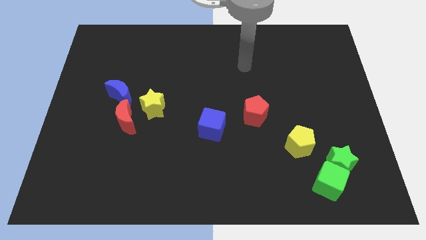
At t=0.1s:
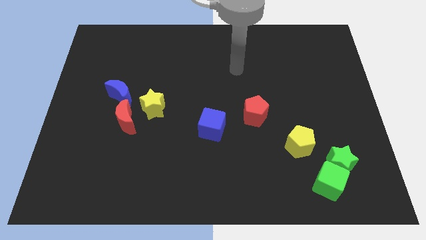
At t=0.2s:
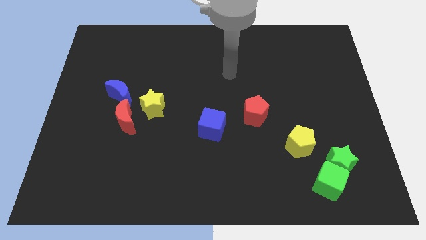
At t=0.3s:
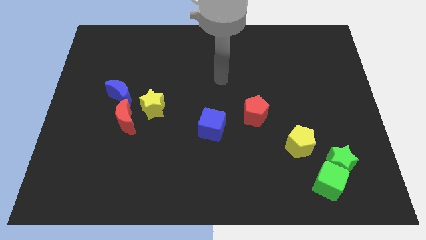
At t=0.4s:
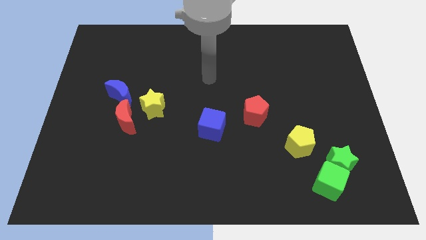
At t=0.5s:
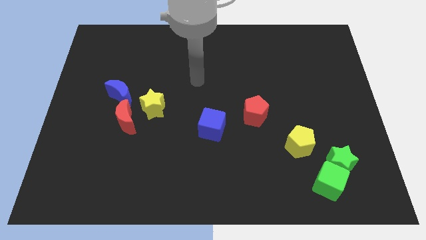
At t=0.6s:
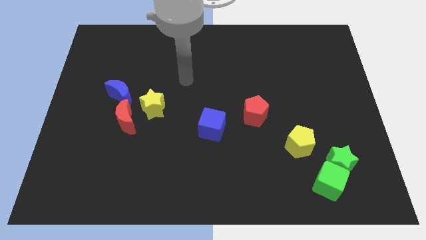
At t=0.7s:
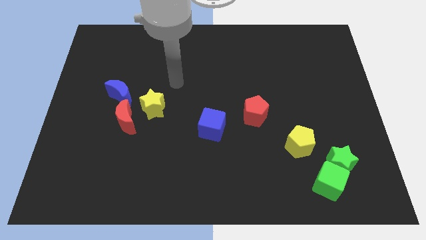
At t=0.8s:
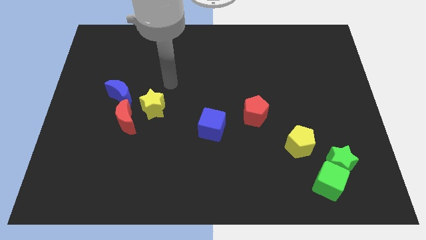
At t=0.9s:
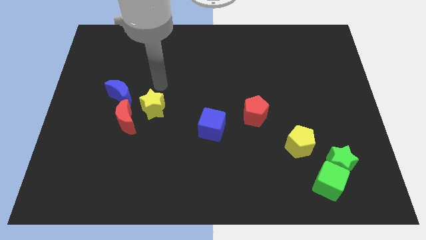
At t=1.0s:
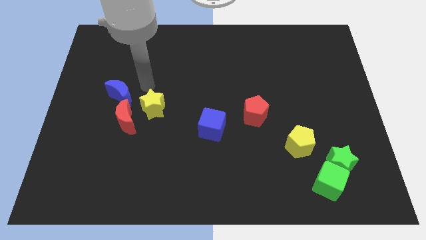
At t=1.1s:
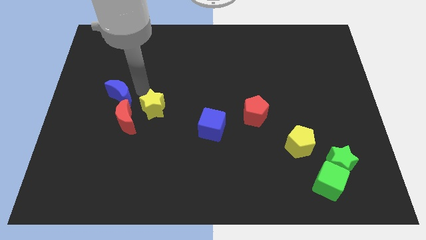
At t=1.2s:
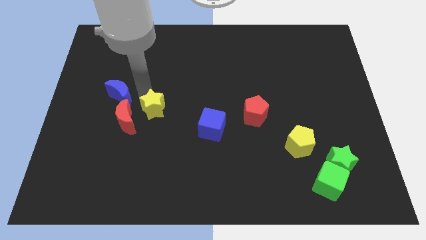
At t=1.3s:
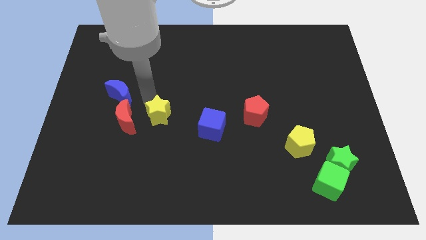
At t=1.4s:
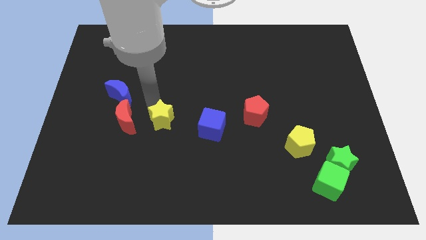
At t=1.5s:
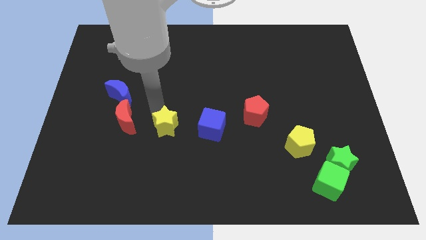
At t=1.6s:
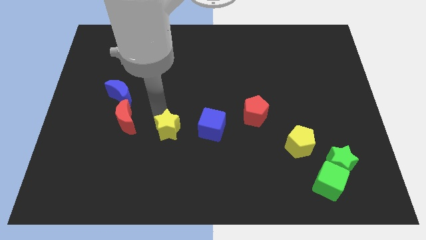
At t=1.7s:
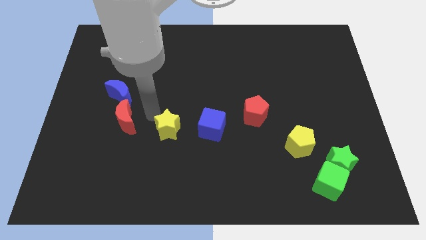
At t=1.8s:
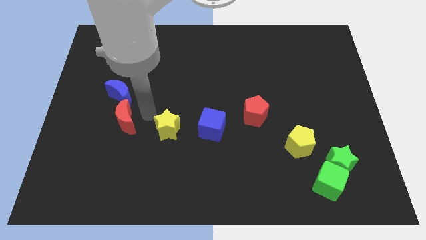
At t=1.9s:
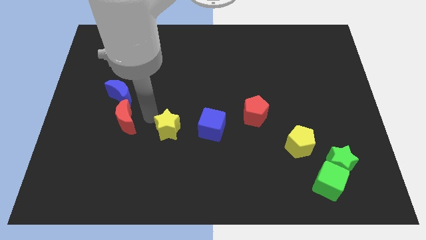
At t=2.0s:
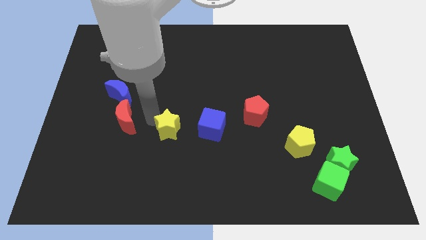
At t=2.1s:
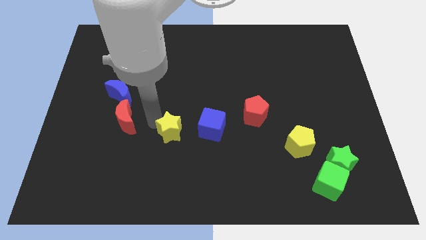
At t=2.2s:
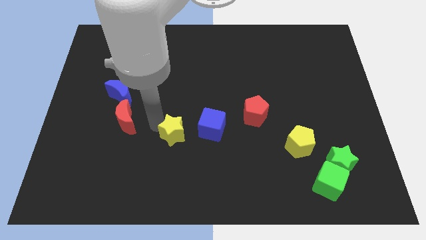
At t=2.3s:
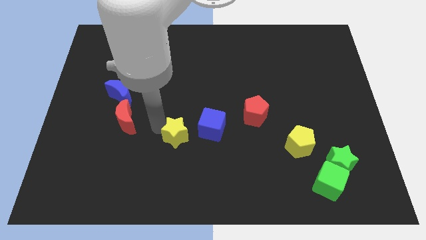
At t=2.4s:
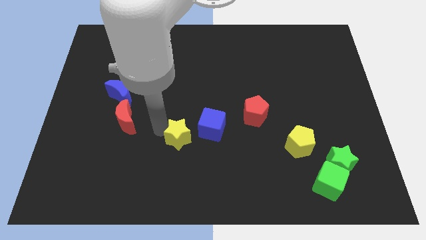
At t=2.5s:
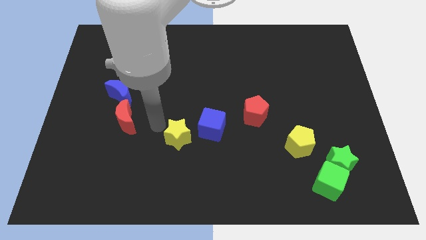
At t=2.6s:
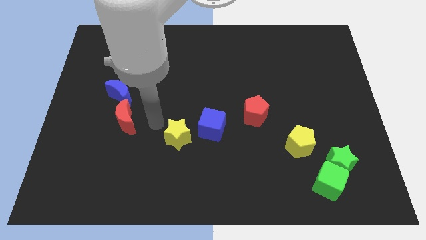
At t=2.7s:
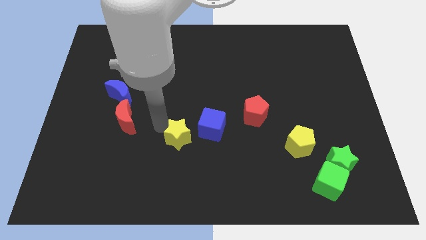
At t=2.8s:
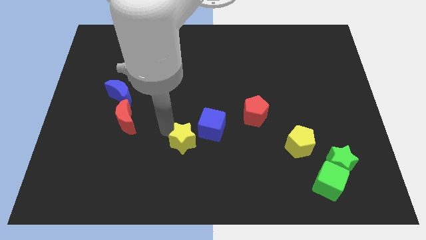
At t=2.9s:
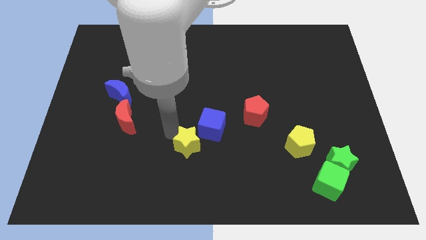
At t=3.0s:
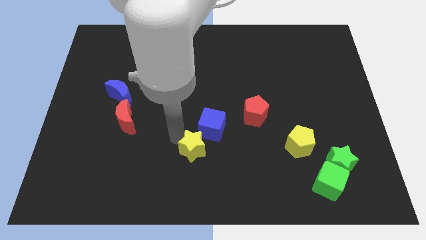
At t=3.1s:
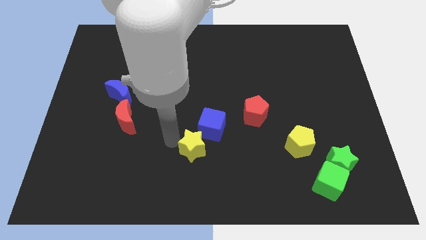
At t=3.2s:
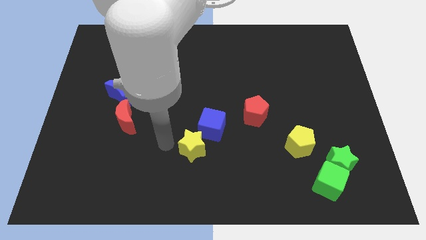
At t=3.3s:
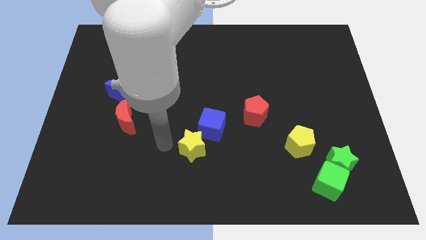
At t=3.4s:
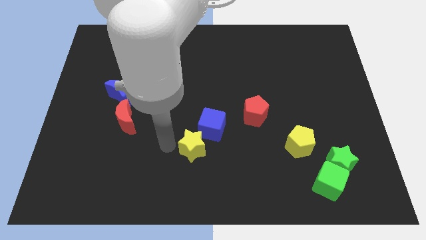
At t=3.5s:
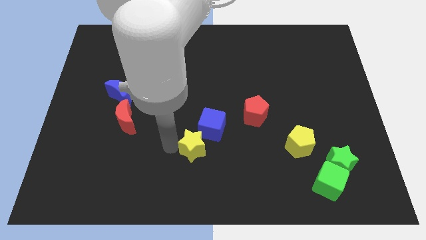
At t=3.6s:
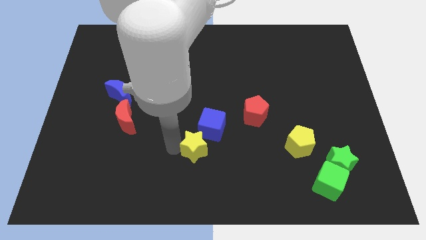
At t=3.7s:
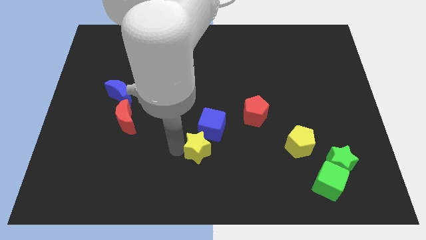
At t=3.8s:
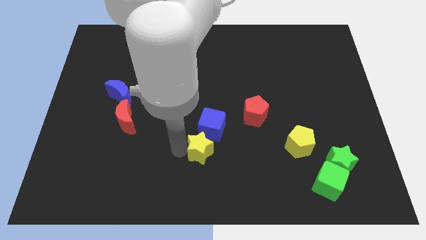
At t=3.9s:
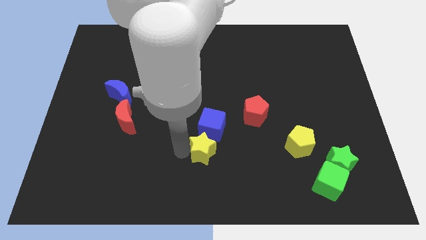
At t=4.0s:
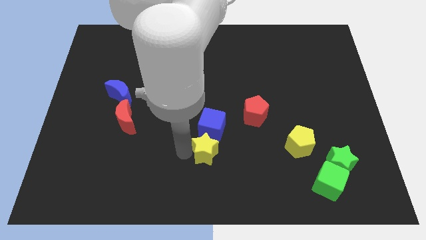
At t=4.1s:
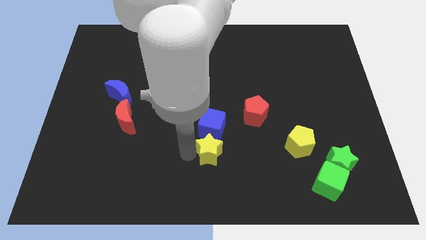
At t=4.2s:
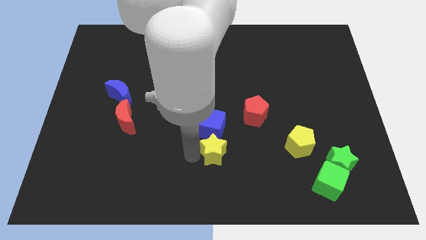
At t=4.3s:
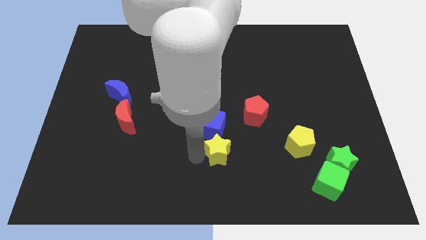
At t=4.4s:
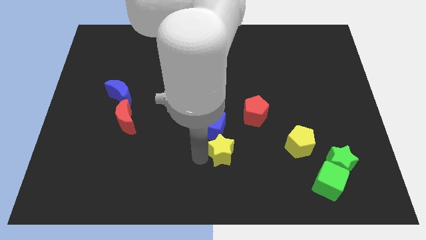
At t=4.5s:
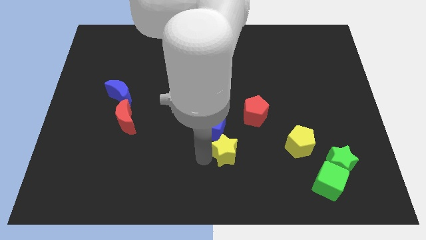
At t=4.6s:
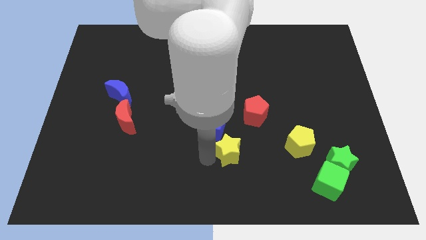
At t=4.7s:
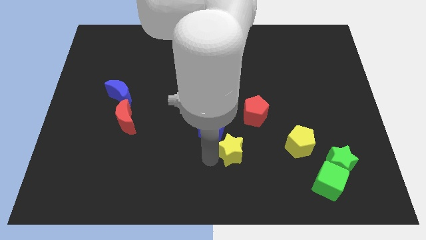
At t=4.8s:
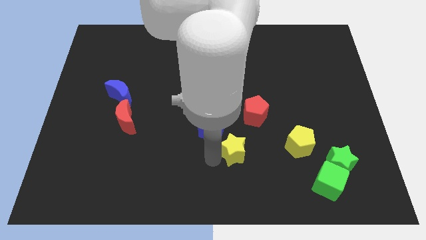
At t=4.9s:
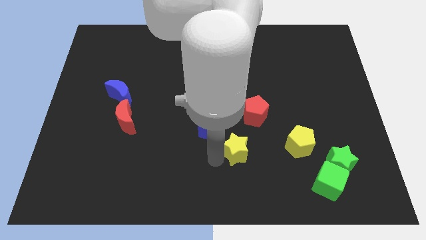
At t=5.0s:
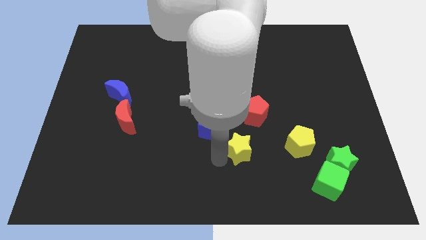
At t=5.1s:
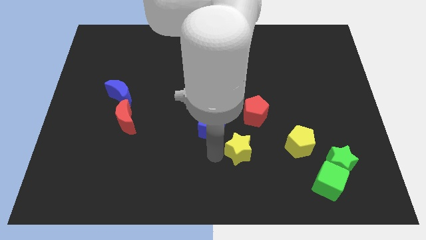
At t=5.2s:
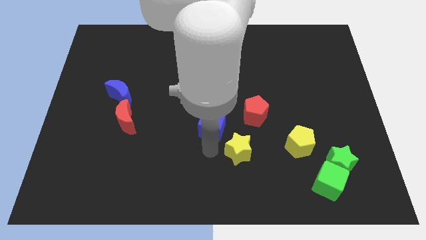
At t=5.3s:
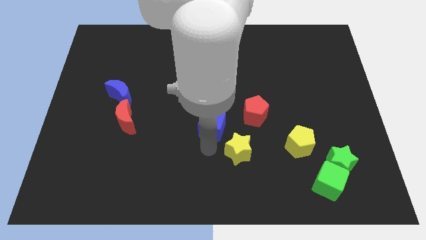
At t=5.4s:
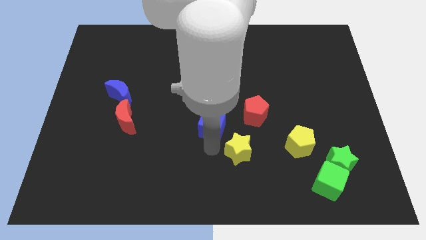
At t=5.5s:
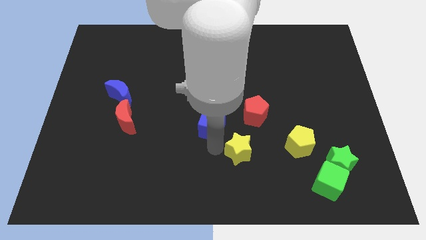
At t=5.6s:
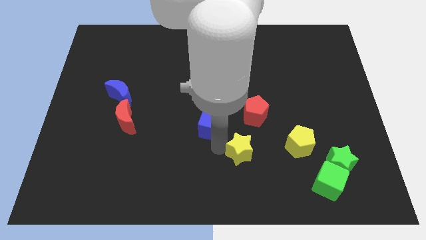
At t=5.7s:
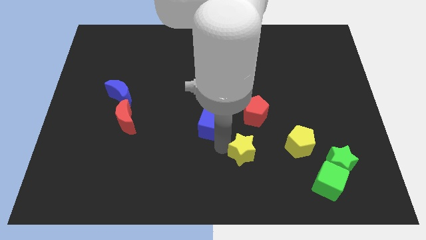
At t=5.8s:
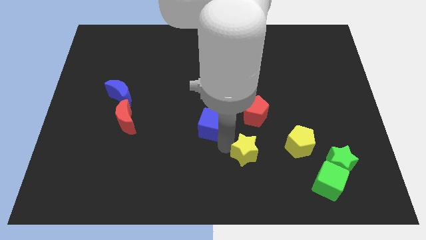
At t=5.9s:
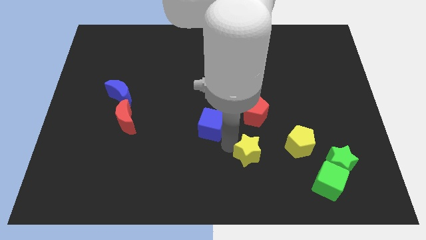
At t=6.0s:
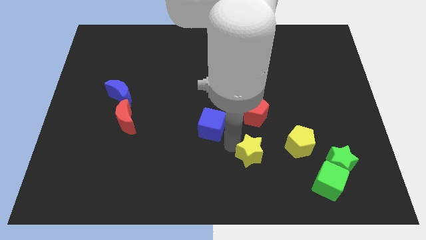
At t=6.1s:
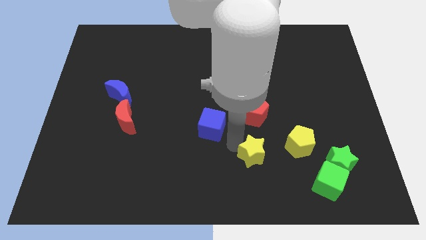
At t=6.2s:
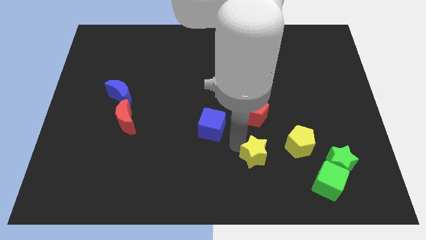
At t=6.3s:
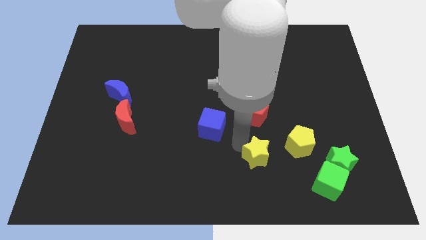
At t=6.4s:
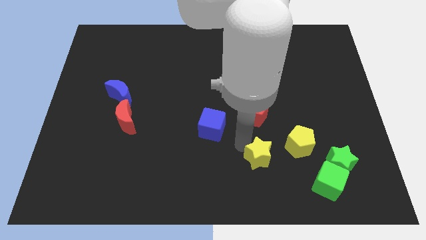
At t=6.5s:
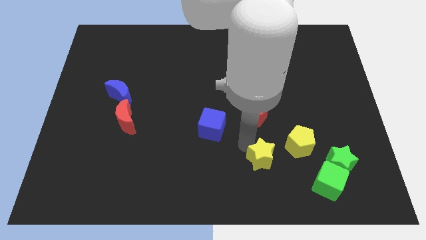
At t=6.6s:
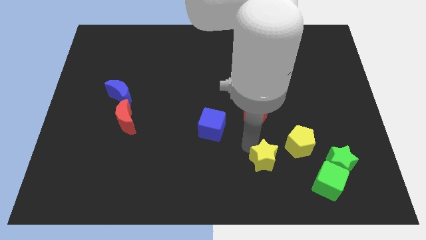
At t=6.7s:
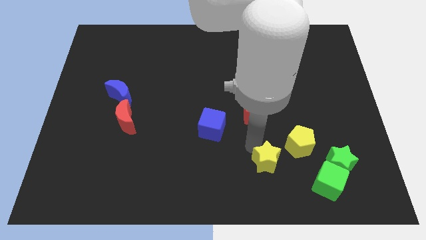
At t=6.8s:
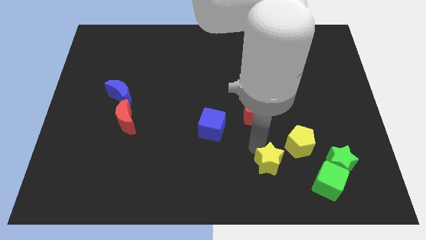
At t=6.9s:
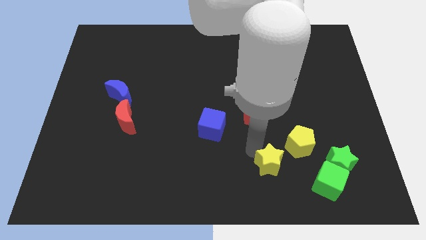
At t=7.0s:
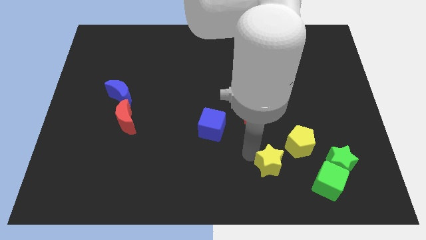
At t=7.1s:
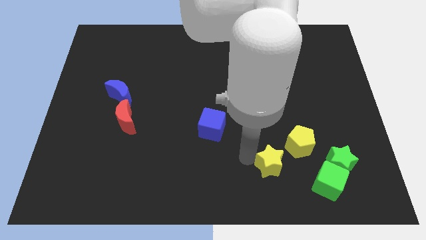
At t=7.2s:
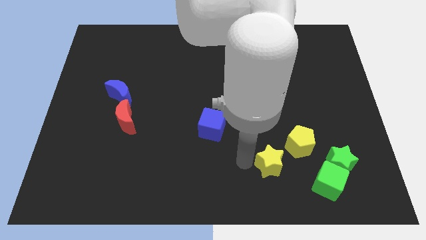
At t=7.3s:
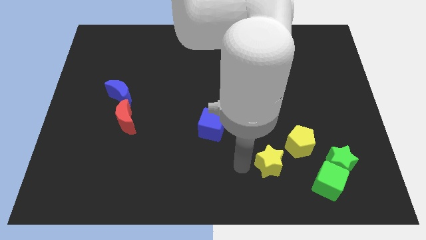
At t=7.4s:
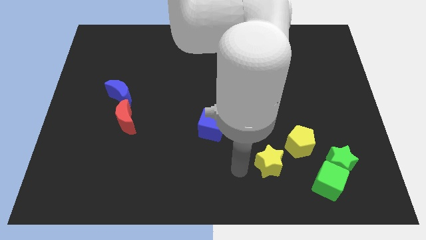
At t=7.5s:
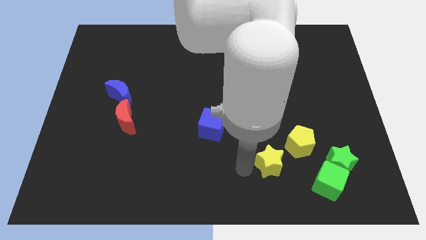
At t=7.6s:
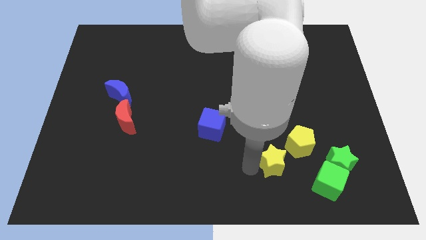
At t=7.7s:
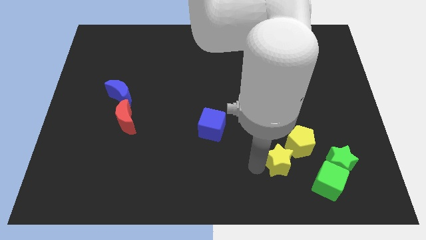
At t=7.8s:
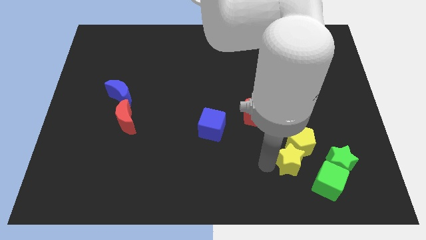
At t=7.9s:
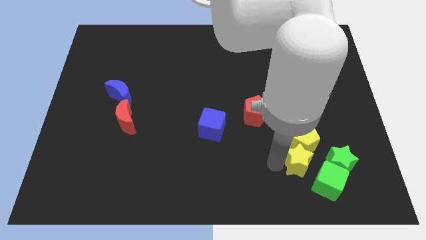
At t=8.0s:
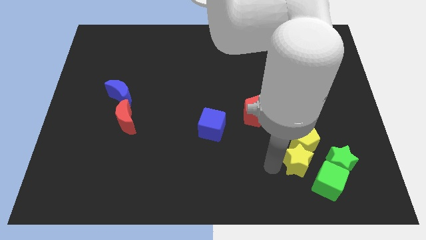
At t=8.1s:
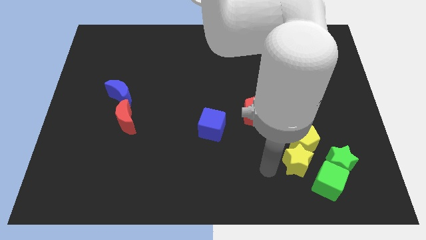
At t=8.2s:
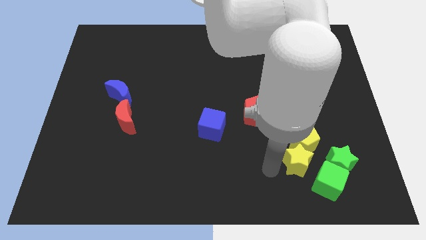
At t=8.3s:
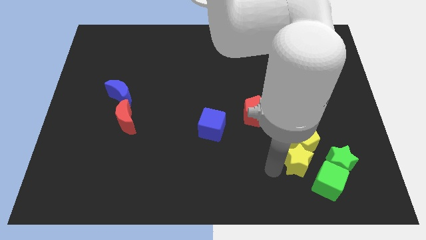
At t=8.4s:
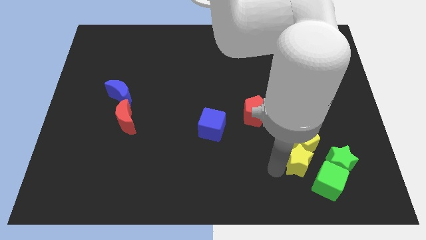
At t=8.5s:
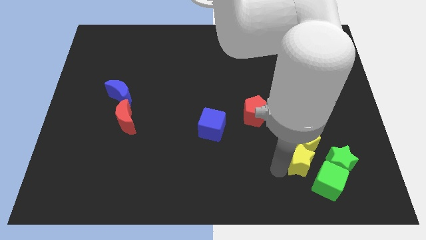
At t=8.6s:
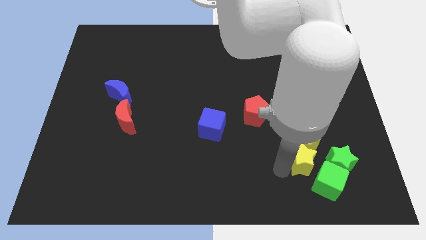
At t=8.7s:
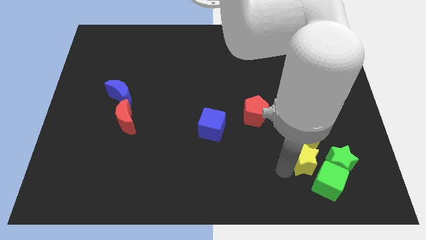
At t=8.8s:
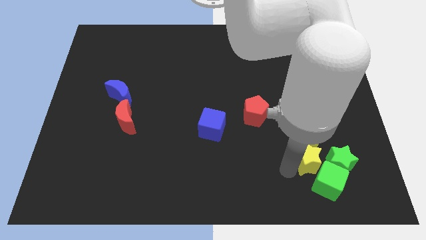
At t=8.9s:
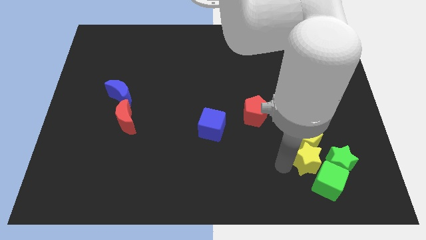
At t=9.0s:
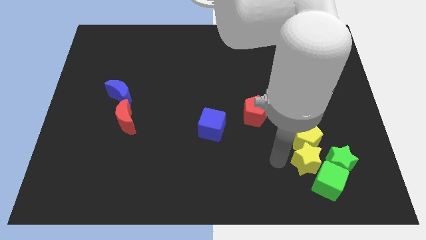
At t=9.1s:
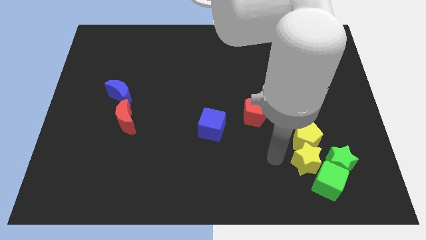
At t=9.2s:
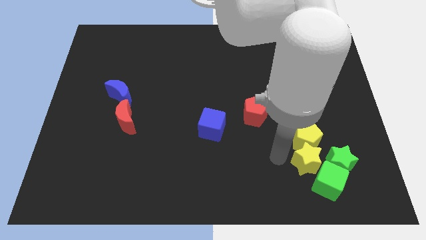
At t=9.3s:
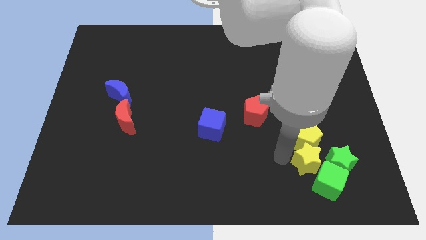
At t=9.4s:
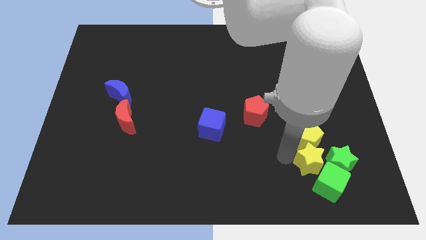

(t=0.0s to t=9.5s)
move the yellow star close to the green star
